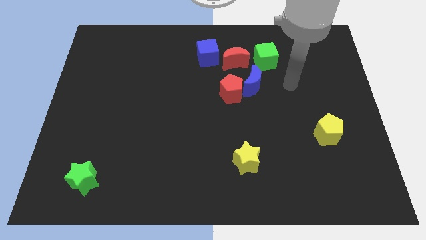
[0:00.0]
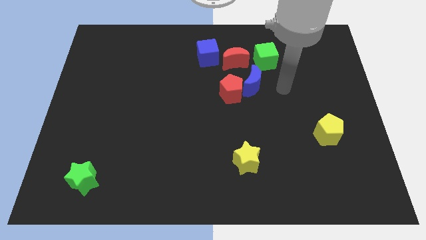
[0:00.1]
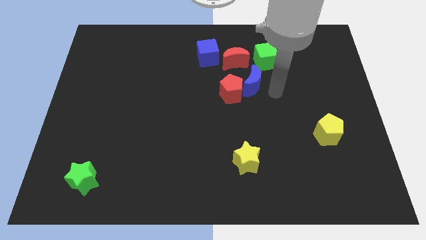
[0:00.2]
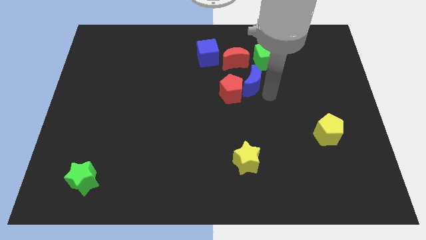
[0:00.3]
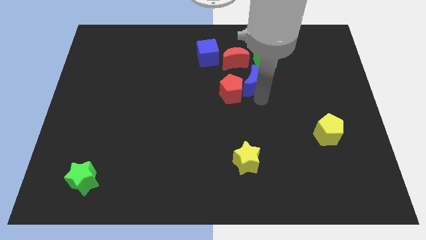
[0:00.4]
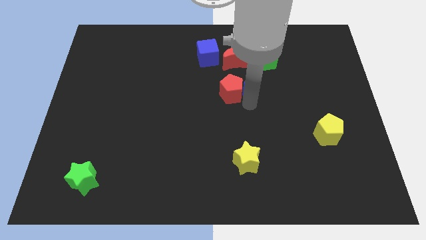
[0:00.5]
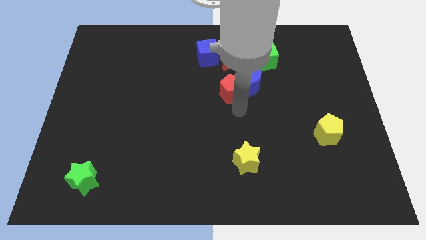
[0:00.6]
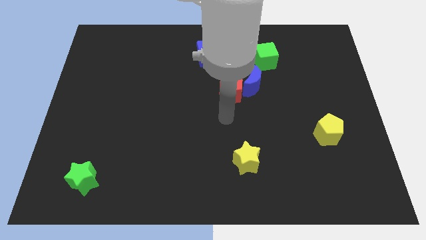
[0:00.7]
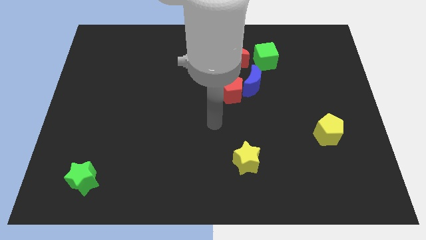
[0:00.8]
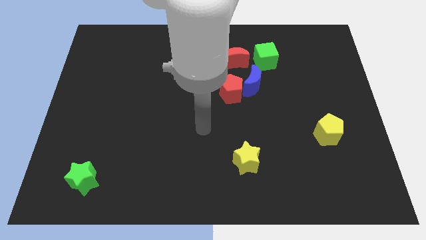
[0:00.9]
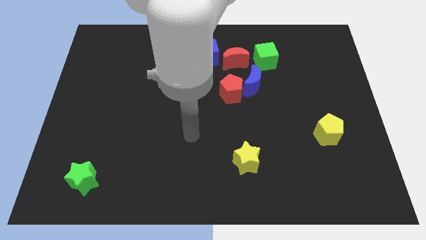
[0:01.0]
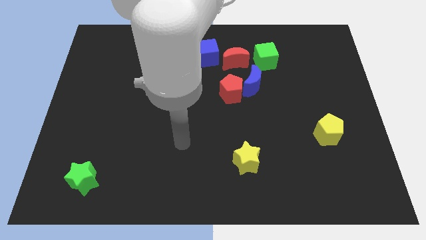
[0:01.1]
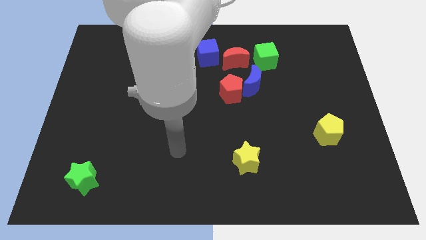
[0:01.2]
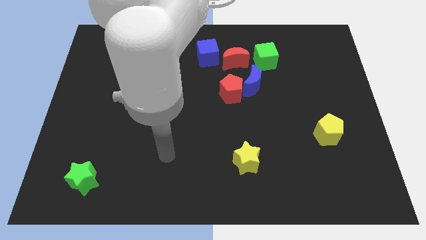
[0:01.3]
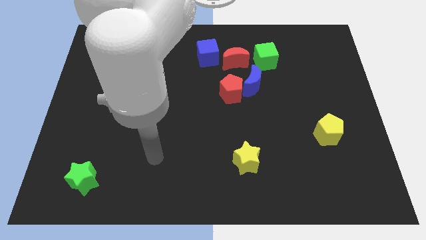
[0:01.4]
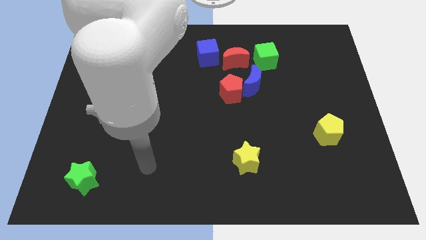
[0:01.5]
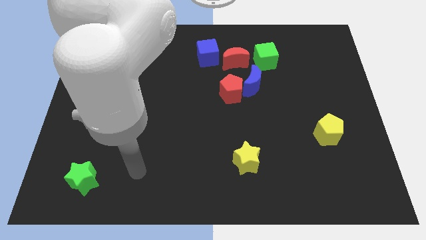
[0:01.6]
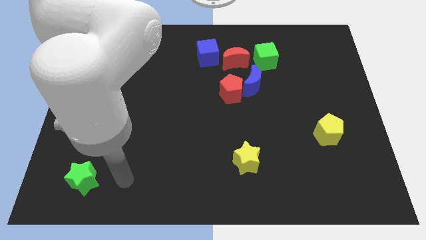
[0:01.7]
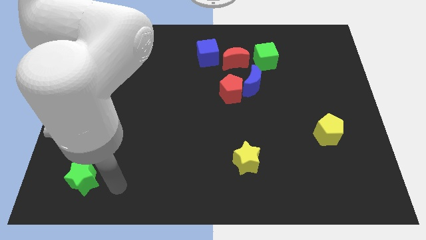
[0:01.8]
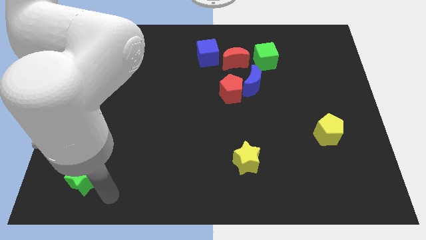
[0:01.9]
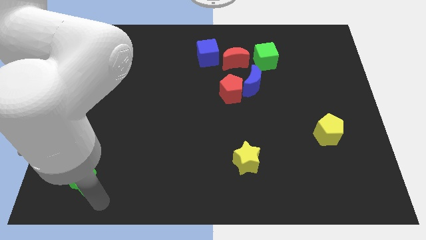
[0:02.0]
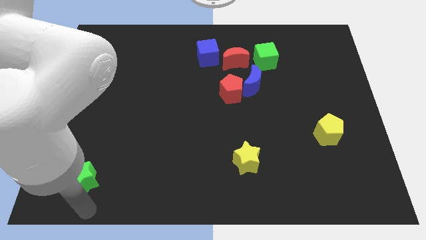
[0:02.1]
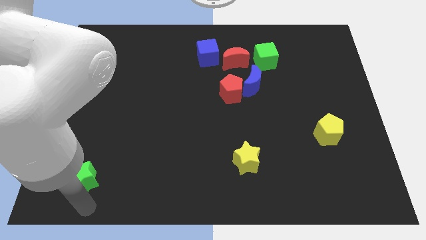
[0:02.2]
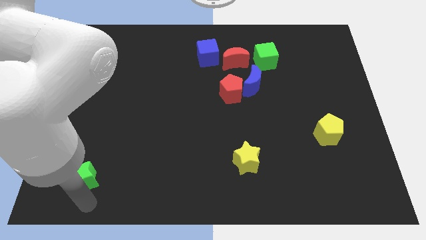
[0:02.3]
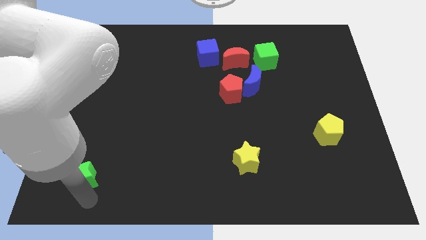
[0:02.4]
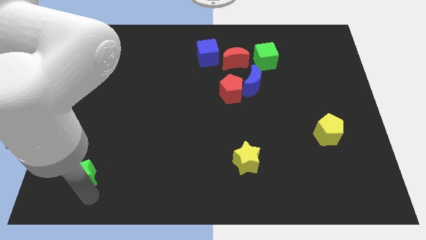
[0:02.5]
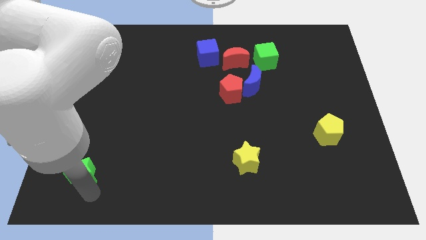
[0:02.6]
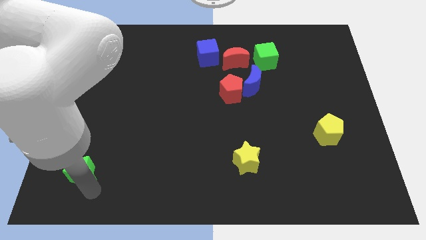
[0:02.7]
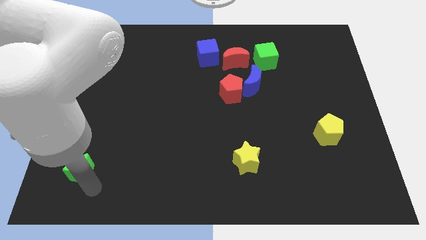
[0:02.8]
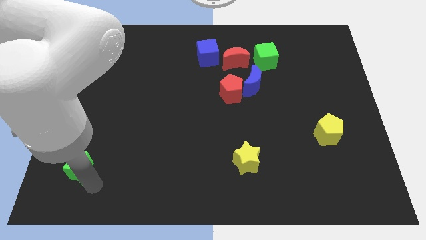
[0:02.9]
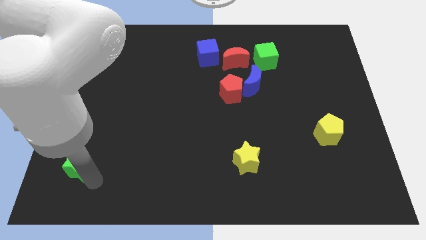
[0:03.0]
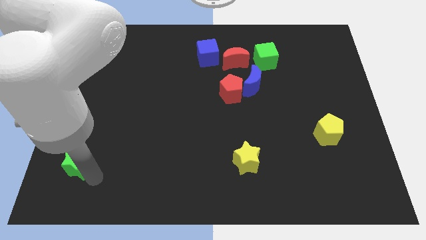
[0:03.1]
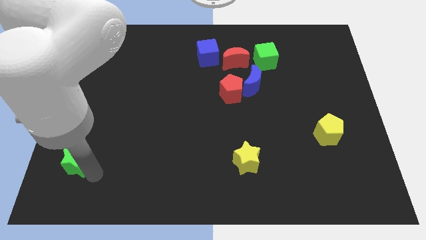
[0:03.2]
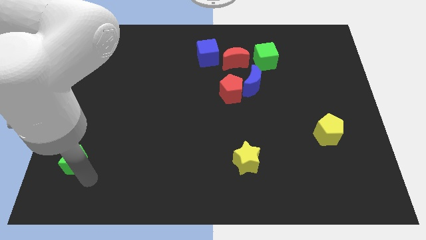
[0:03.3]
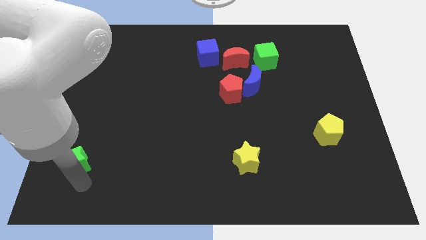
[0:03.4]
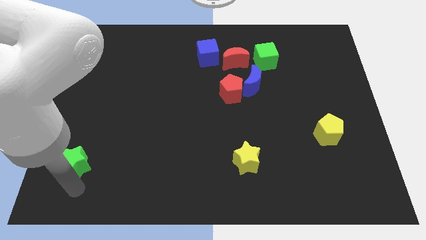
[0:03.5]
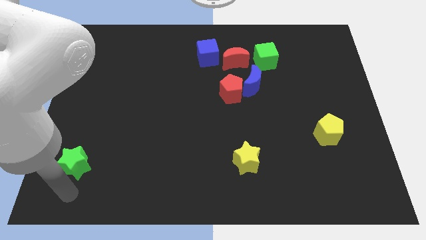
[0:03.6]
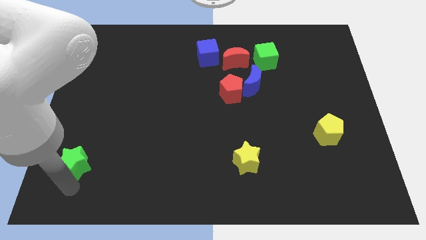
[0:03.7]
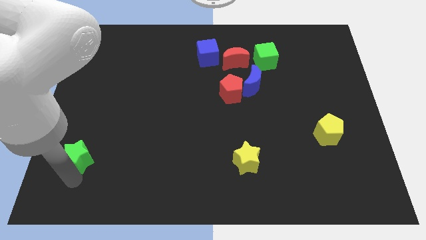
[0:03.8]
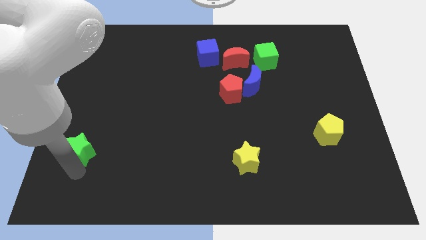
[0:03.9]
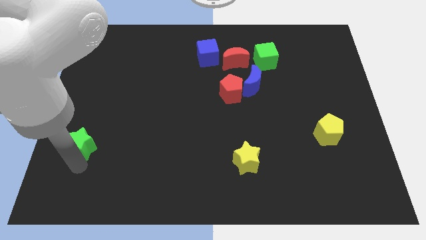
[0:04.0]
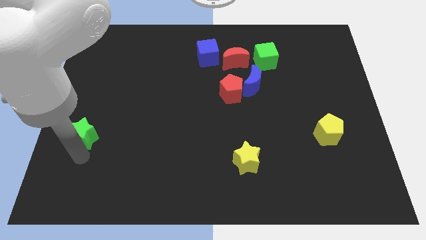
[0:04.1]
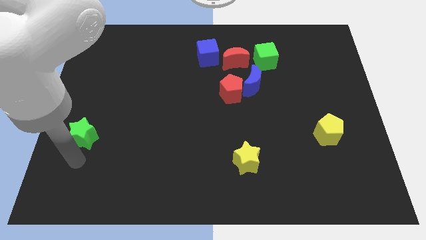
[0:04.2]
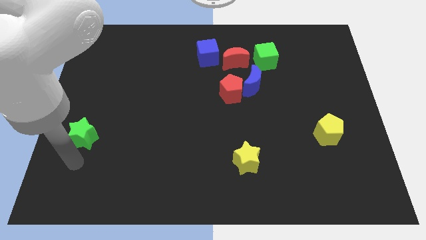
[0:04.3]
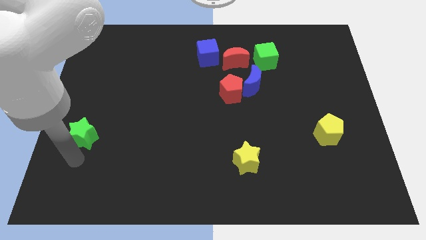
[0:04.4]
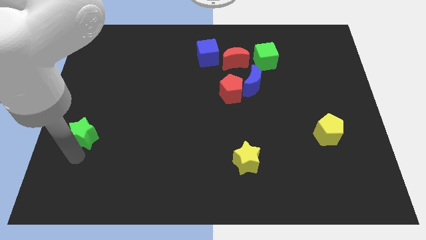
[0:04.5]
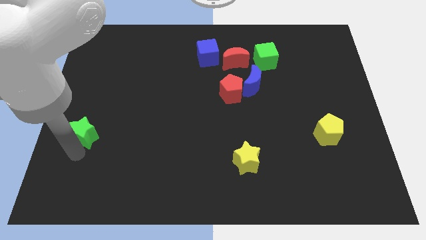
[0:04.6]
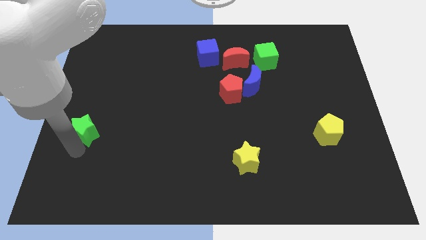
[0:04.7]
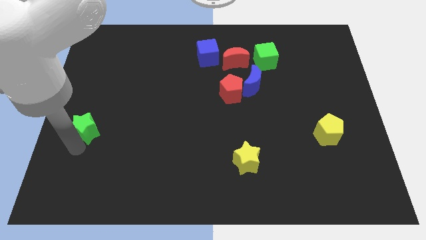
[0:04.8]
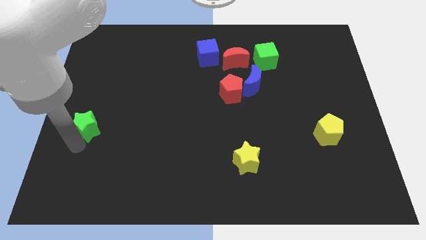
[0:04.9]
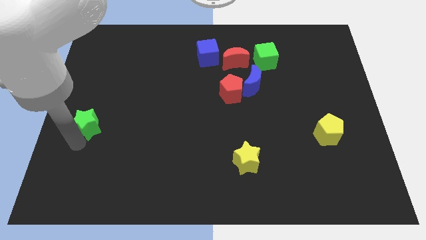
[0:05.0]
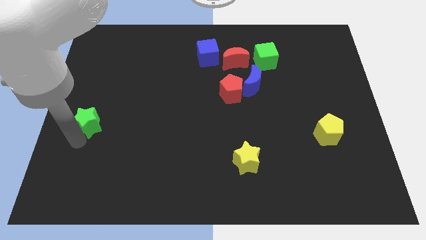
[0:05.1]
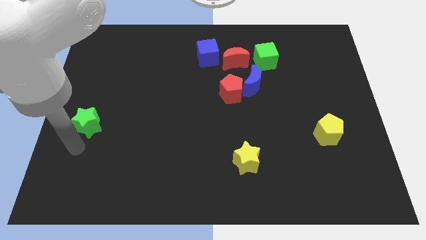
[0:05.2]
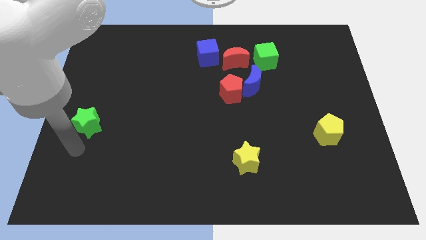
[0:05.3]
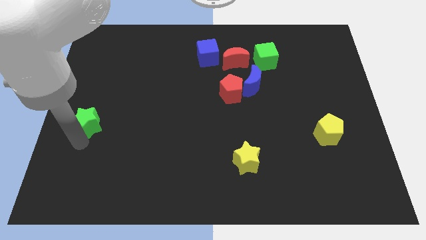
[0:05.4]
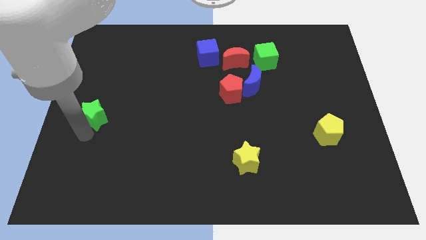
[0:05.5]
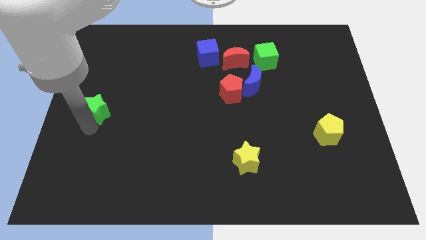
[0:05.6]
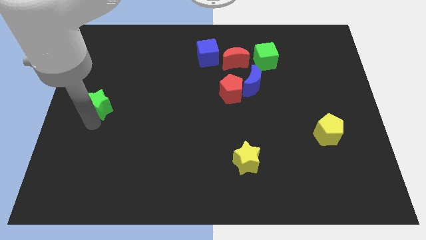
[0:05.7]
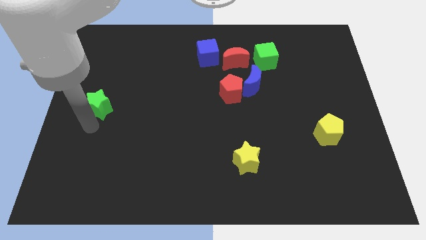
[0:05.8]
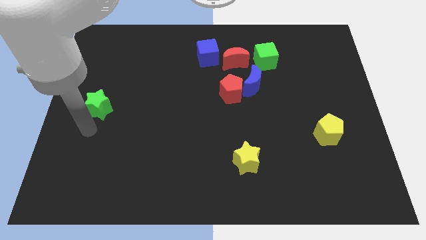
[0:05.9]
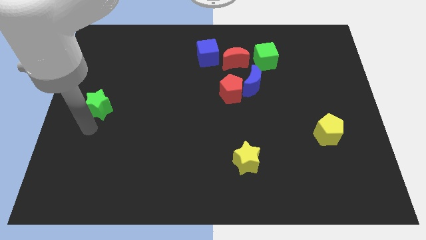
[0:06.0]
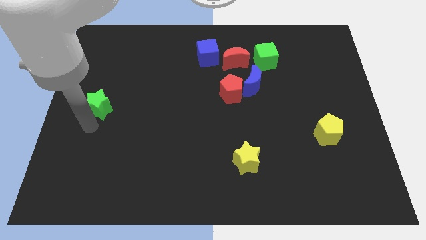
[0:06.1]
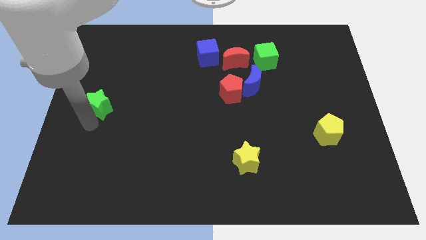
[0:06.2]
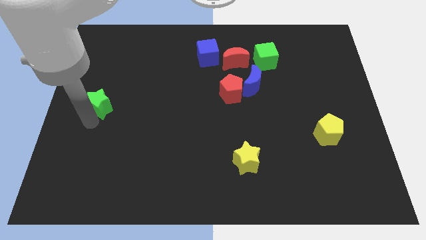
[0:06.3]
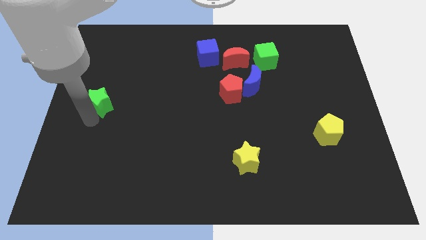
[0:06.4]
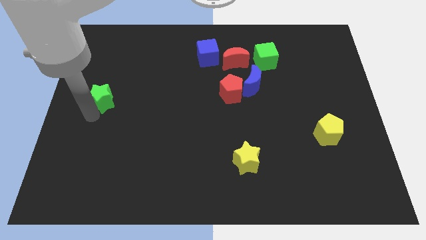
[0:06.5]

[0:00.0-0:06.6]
move the green star upwards

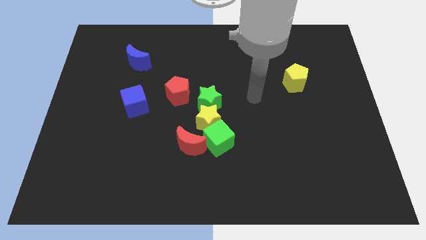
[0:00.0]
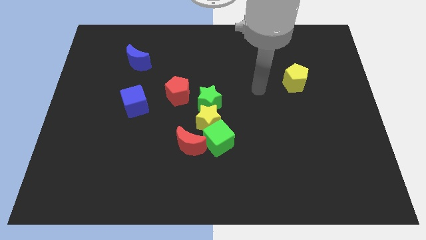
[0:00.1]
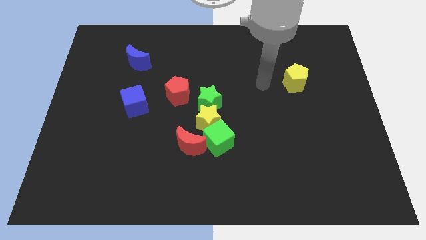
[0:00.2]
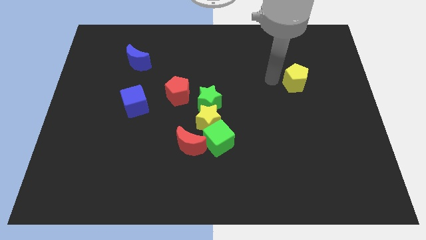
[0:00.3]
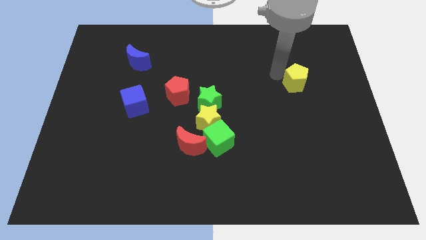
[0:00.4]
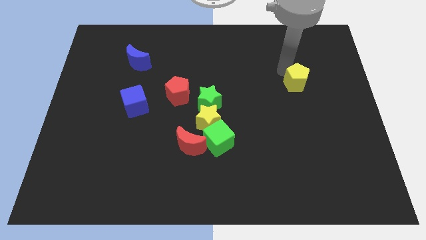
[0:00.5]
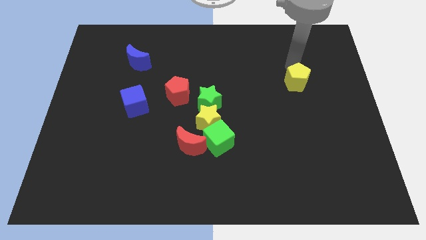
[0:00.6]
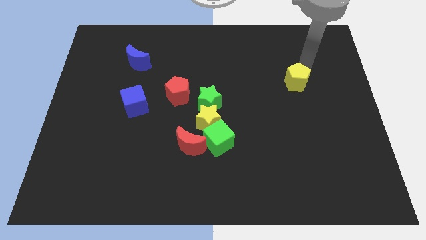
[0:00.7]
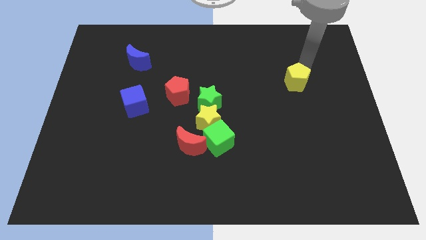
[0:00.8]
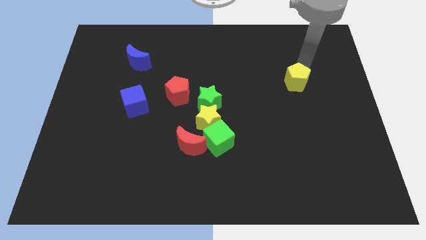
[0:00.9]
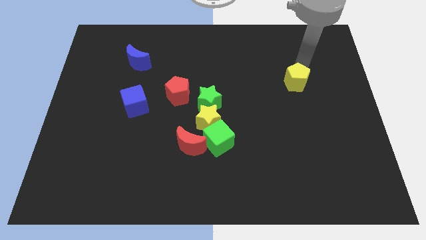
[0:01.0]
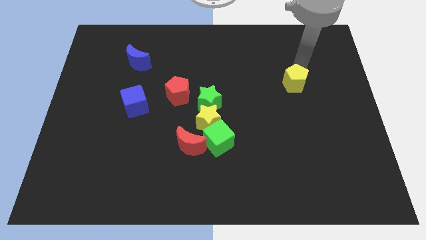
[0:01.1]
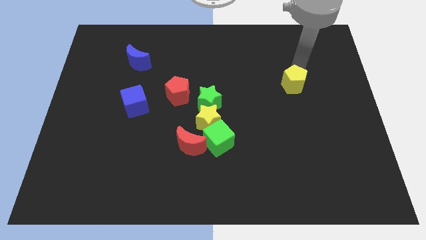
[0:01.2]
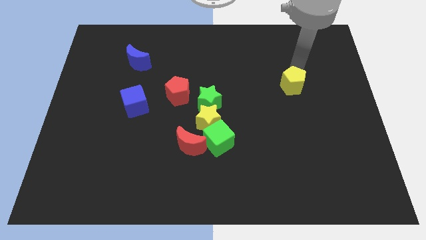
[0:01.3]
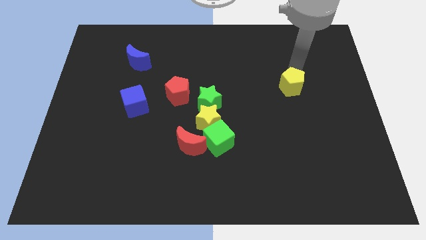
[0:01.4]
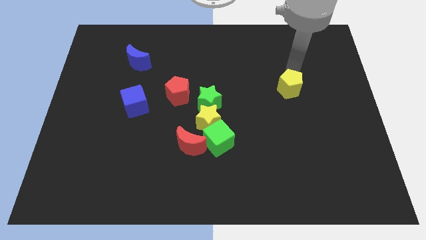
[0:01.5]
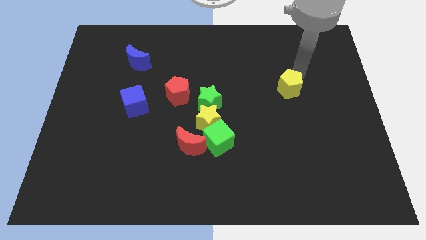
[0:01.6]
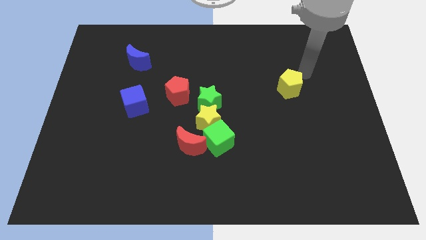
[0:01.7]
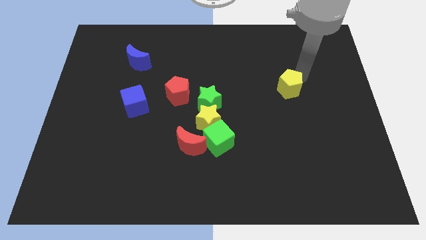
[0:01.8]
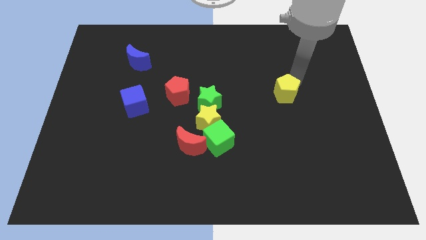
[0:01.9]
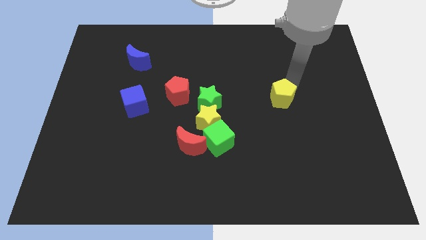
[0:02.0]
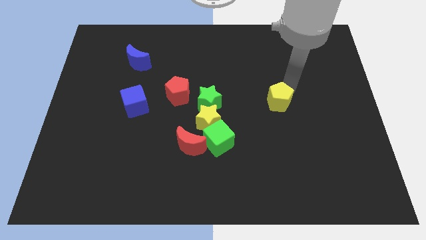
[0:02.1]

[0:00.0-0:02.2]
move the yellow pentagon slightly down and left diagonally
